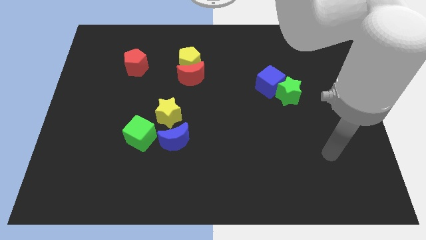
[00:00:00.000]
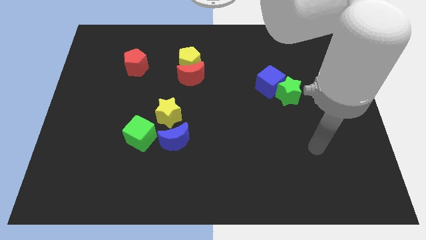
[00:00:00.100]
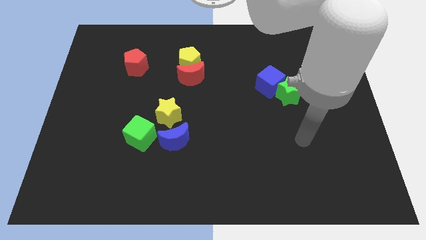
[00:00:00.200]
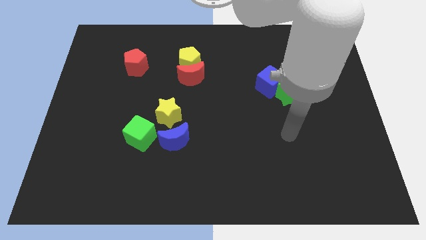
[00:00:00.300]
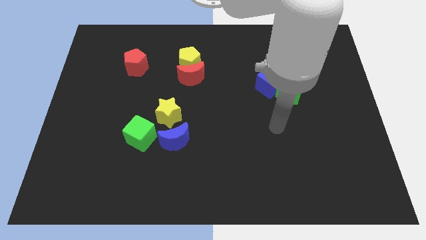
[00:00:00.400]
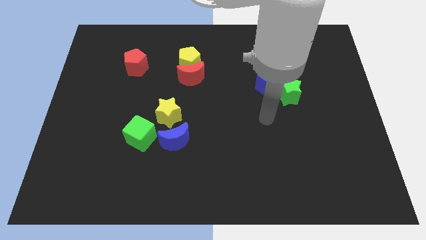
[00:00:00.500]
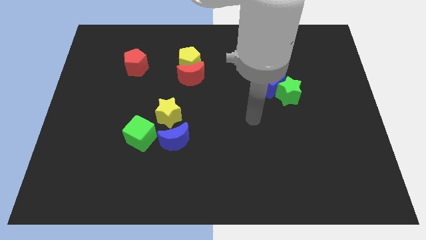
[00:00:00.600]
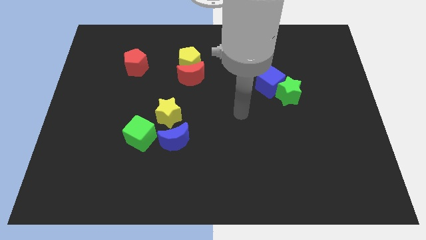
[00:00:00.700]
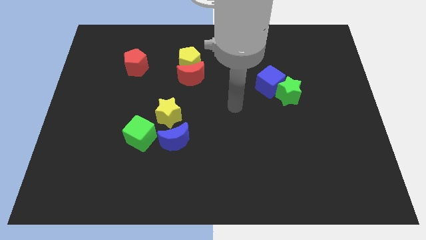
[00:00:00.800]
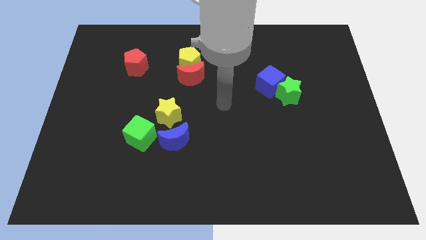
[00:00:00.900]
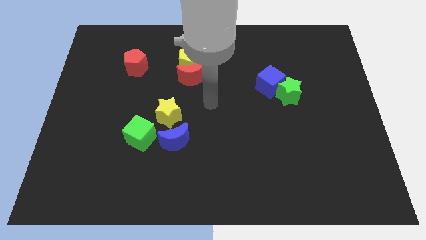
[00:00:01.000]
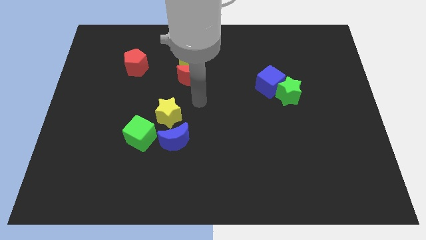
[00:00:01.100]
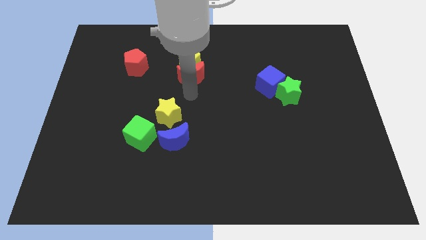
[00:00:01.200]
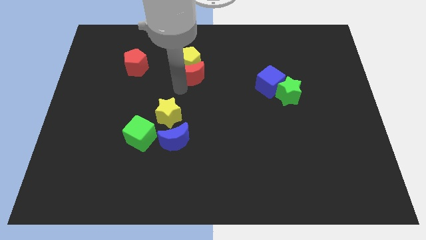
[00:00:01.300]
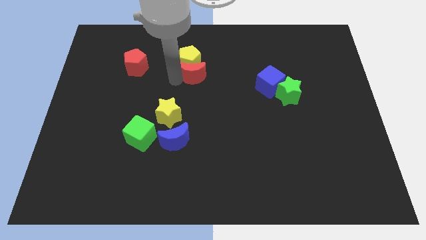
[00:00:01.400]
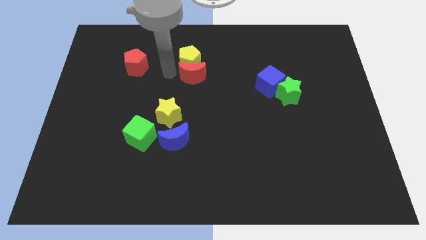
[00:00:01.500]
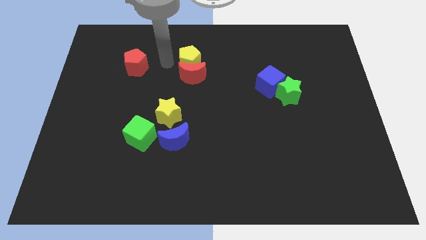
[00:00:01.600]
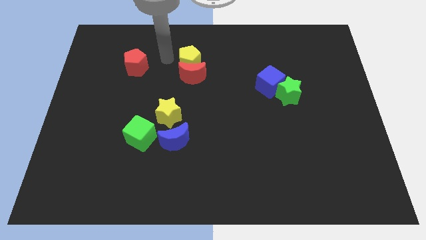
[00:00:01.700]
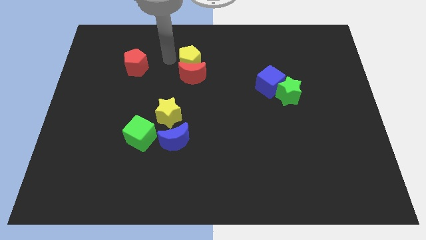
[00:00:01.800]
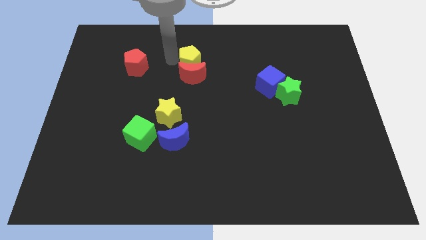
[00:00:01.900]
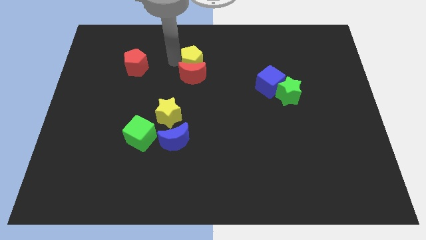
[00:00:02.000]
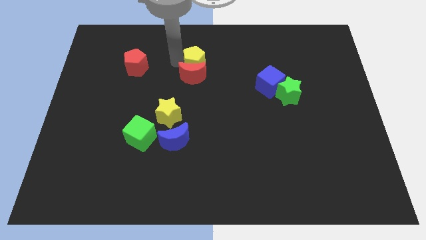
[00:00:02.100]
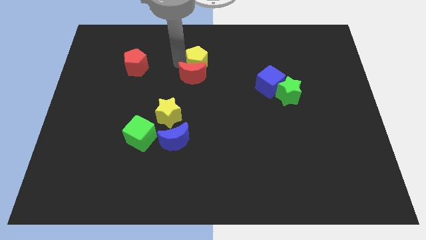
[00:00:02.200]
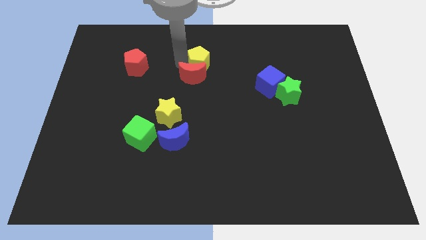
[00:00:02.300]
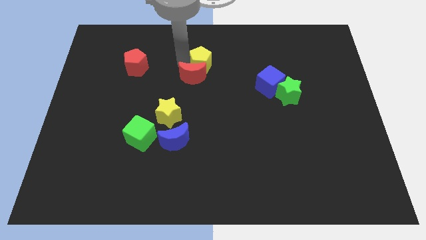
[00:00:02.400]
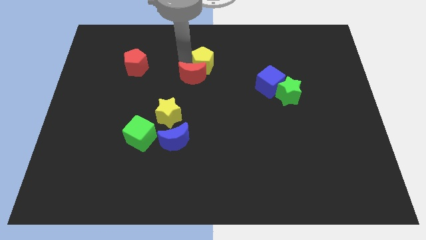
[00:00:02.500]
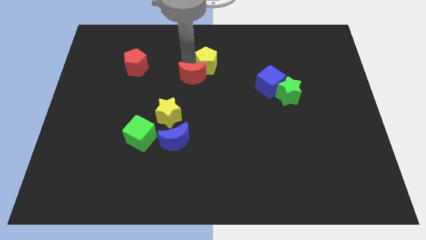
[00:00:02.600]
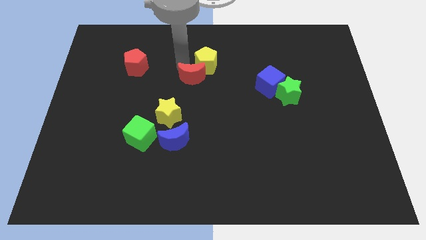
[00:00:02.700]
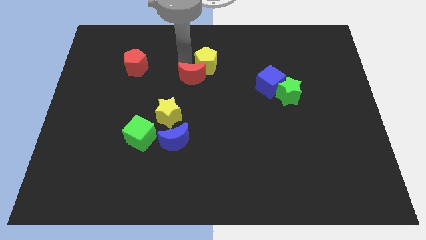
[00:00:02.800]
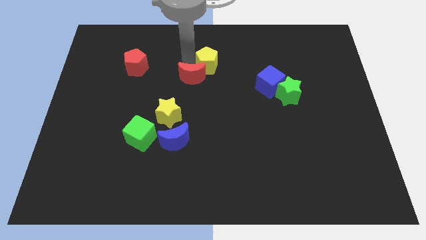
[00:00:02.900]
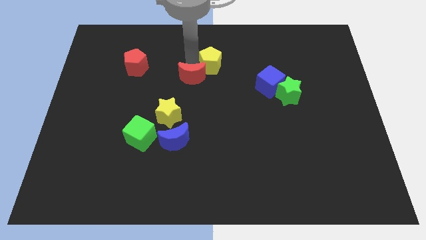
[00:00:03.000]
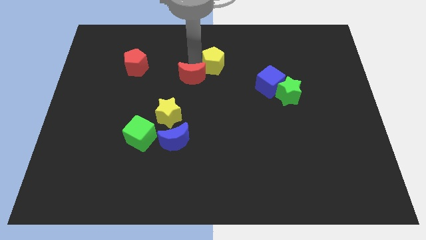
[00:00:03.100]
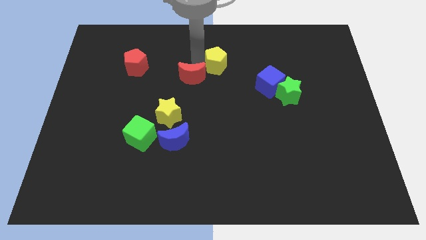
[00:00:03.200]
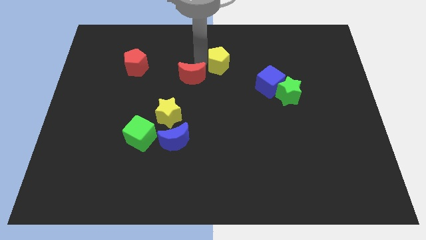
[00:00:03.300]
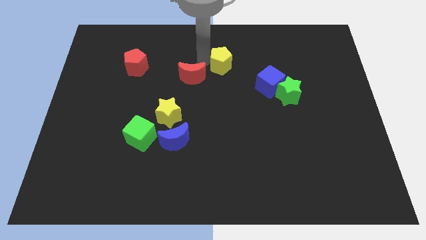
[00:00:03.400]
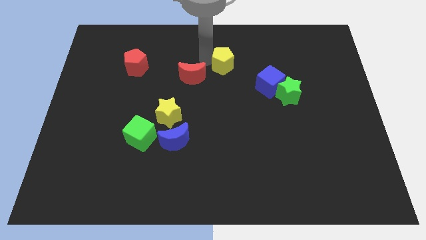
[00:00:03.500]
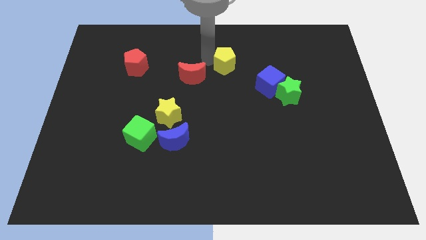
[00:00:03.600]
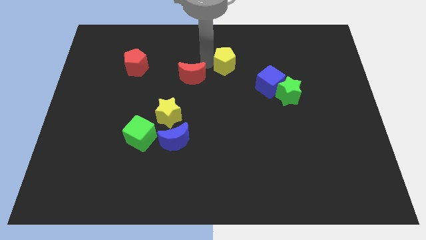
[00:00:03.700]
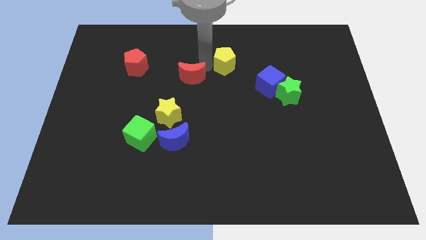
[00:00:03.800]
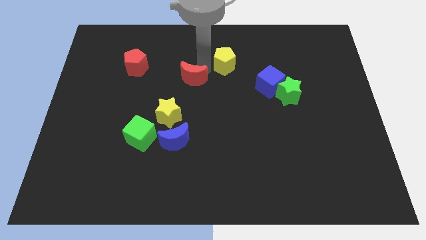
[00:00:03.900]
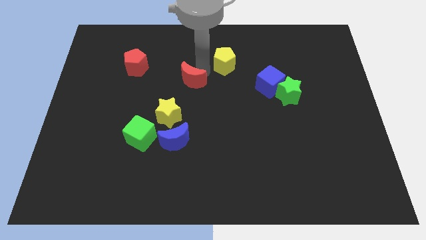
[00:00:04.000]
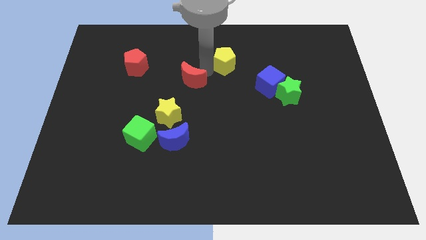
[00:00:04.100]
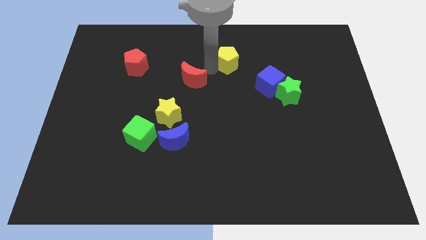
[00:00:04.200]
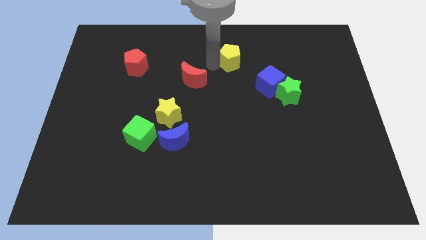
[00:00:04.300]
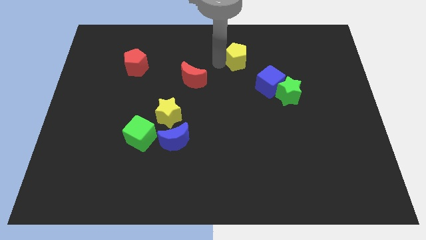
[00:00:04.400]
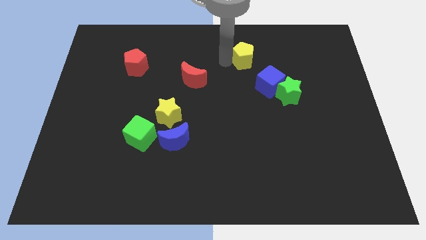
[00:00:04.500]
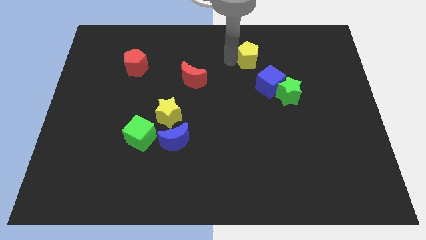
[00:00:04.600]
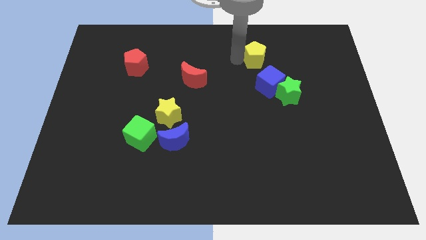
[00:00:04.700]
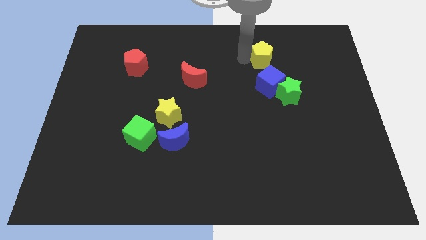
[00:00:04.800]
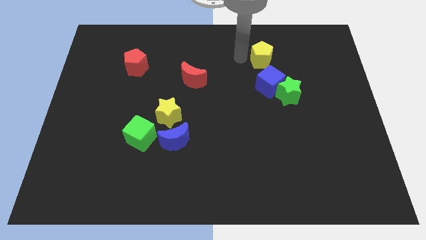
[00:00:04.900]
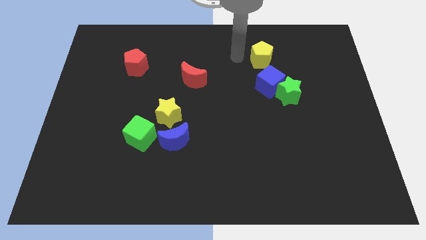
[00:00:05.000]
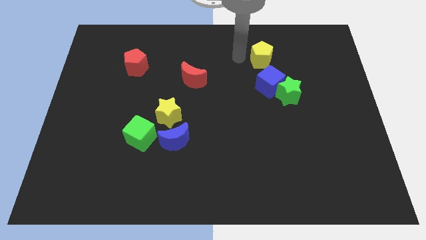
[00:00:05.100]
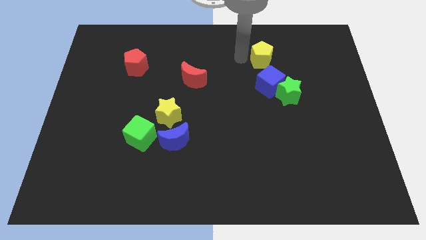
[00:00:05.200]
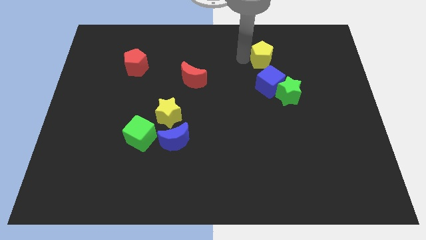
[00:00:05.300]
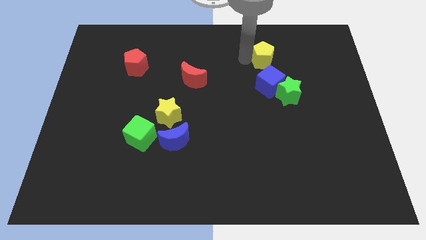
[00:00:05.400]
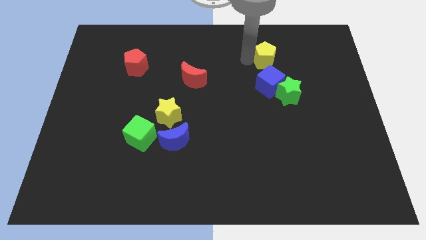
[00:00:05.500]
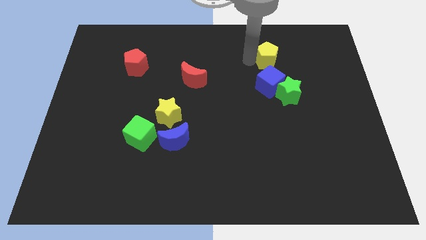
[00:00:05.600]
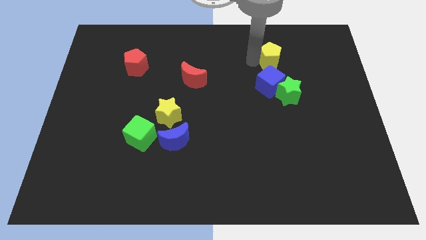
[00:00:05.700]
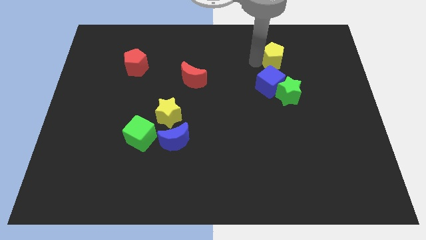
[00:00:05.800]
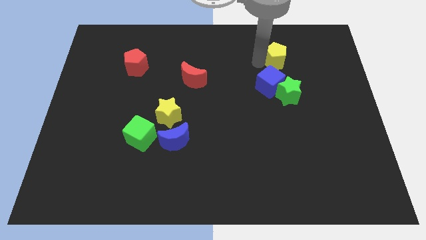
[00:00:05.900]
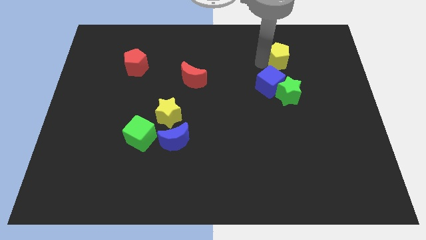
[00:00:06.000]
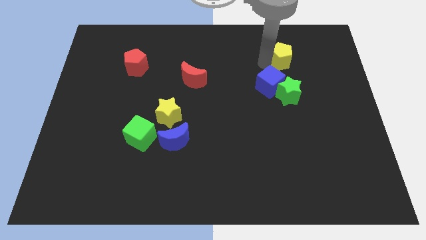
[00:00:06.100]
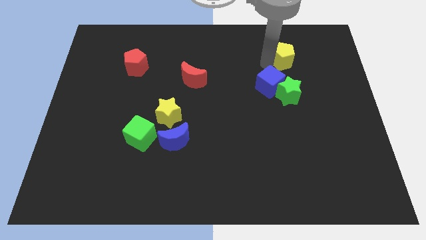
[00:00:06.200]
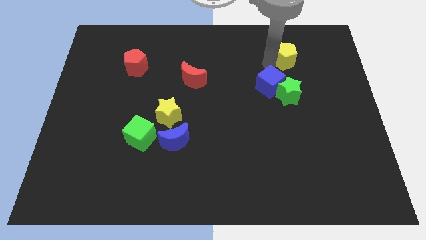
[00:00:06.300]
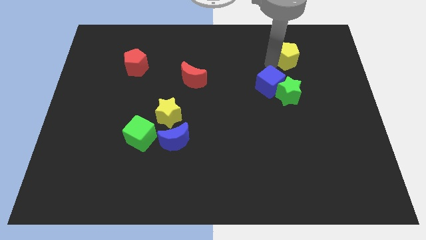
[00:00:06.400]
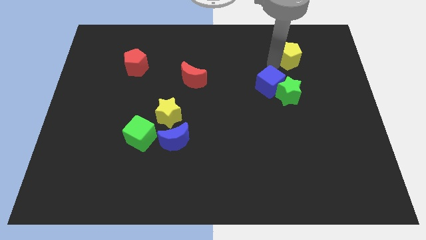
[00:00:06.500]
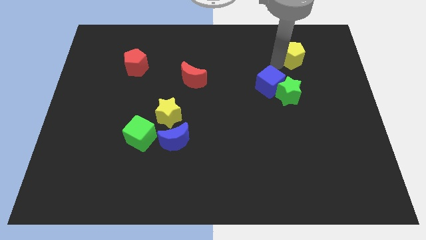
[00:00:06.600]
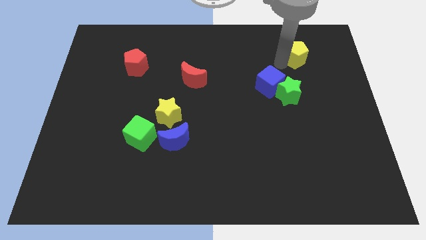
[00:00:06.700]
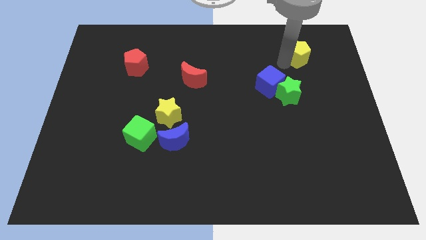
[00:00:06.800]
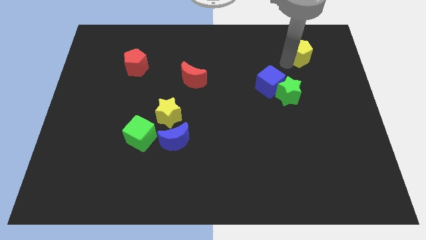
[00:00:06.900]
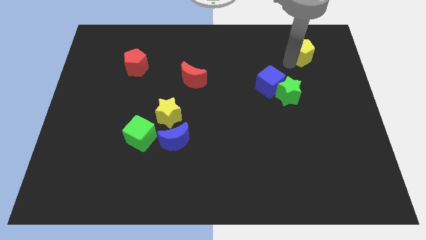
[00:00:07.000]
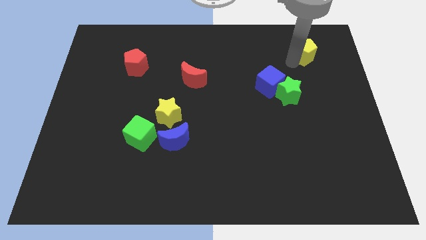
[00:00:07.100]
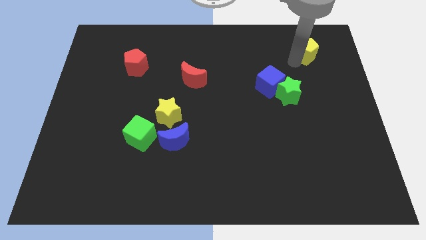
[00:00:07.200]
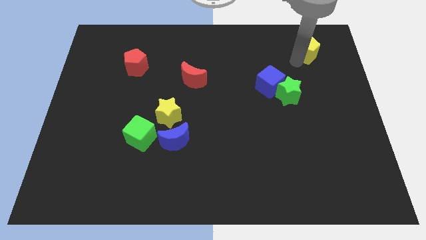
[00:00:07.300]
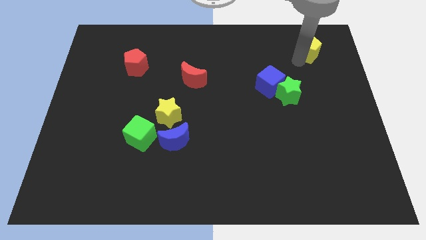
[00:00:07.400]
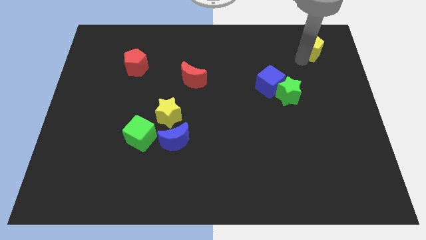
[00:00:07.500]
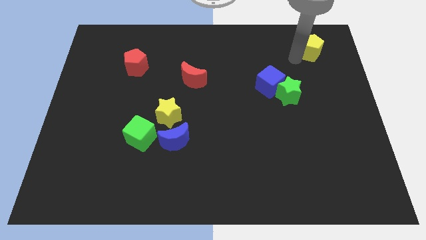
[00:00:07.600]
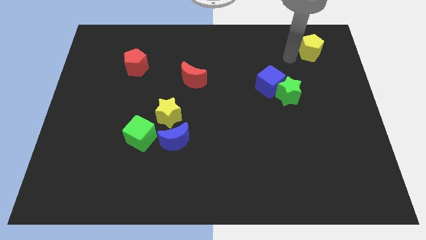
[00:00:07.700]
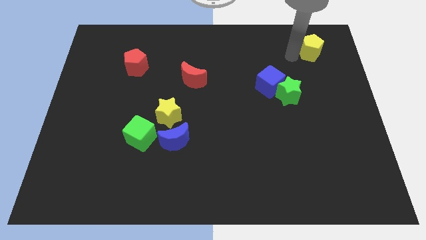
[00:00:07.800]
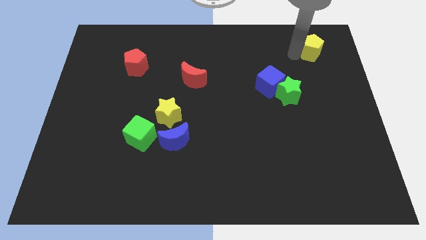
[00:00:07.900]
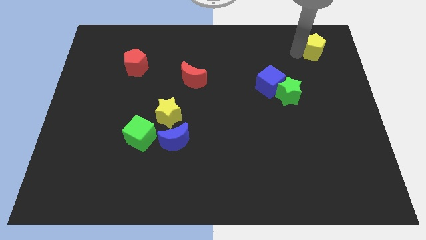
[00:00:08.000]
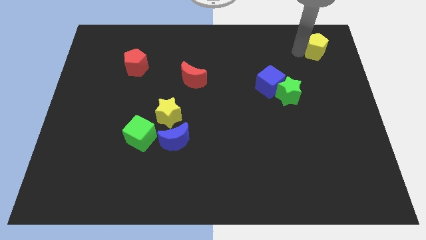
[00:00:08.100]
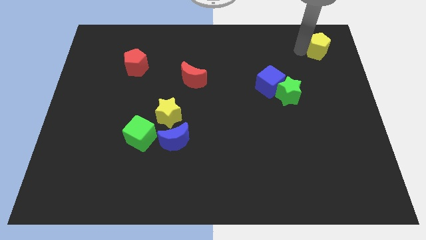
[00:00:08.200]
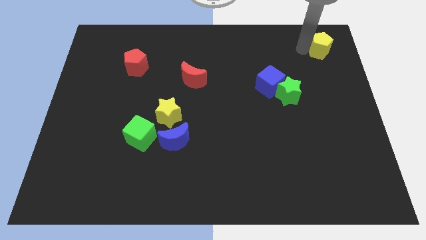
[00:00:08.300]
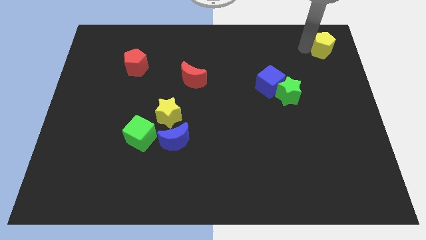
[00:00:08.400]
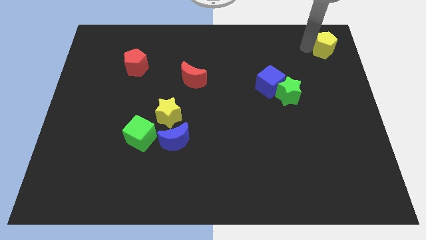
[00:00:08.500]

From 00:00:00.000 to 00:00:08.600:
push the yellow pentagon to the top right corner
